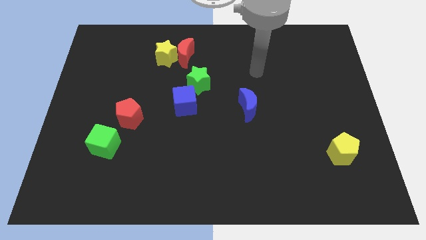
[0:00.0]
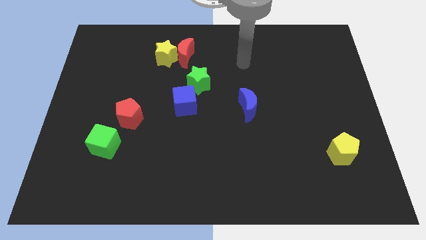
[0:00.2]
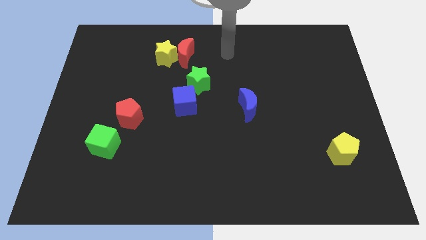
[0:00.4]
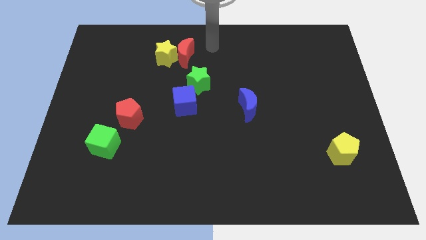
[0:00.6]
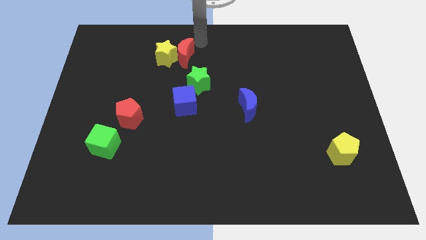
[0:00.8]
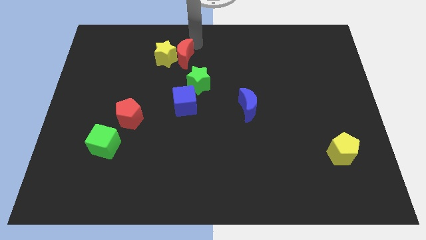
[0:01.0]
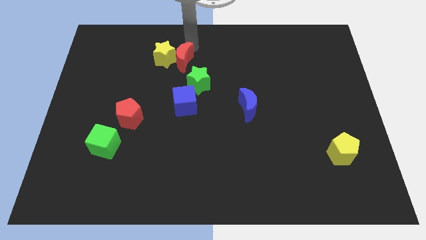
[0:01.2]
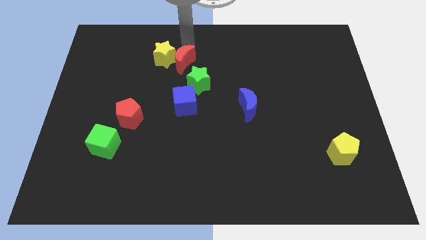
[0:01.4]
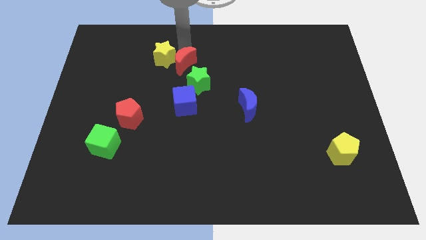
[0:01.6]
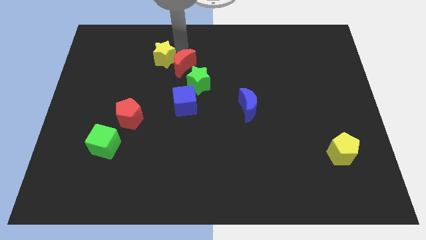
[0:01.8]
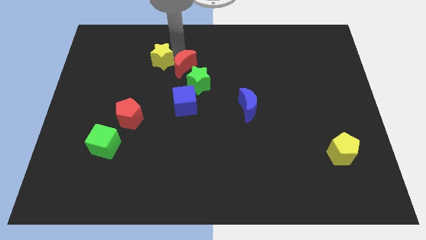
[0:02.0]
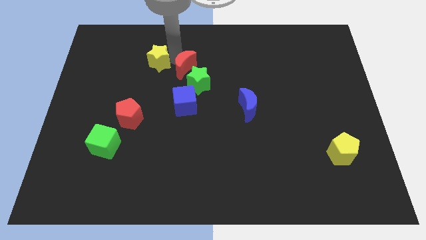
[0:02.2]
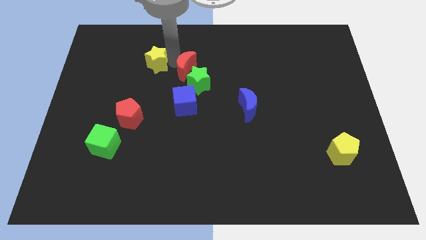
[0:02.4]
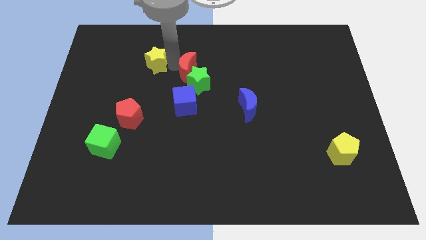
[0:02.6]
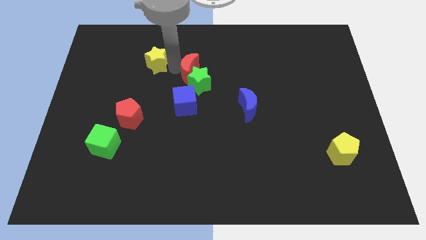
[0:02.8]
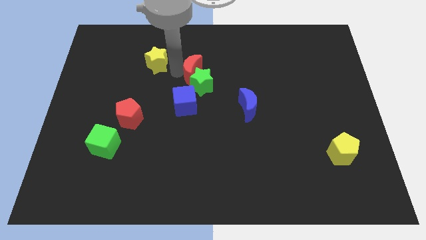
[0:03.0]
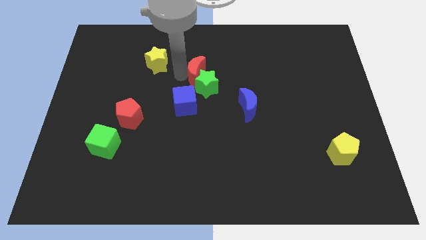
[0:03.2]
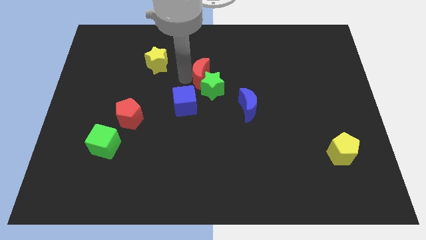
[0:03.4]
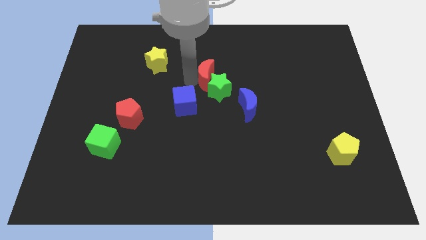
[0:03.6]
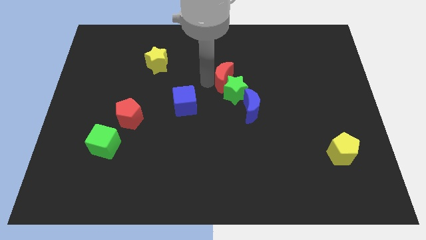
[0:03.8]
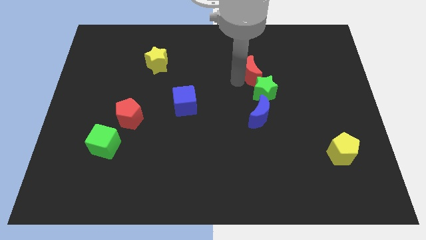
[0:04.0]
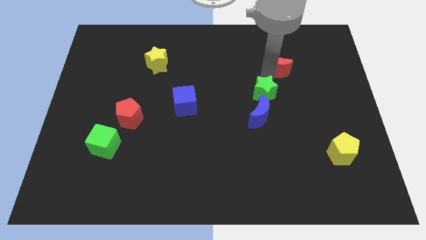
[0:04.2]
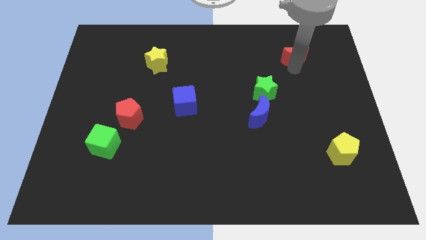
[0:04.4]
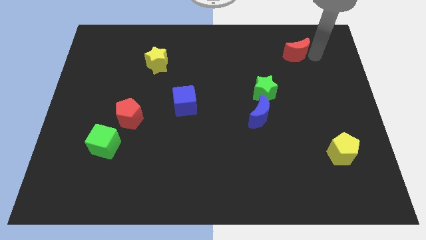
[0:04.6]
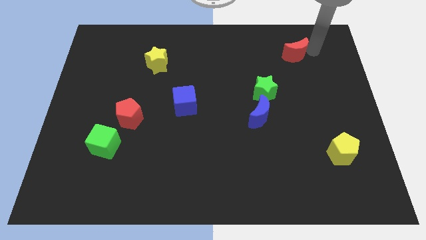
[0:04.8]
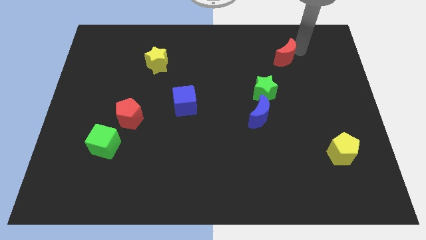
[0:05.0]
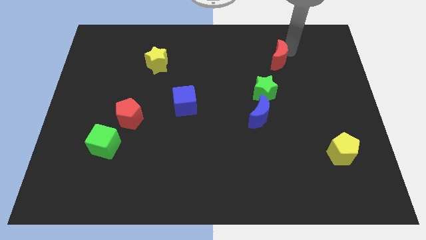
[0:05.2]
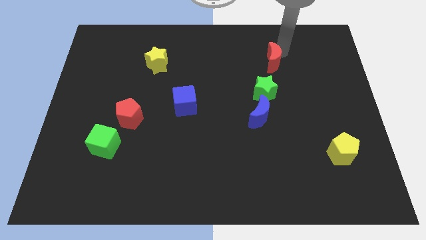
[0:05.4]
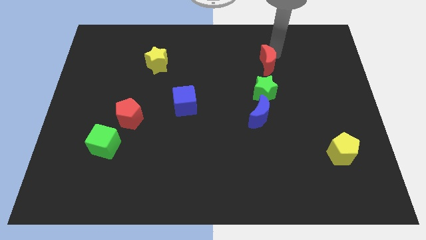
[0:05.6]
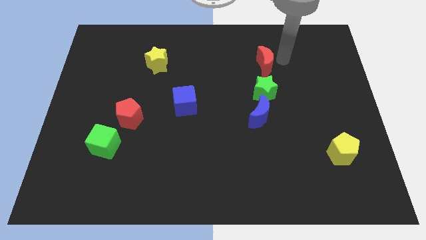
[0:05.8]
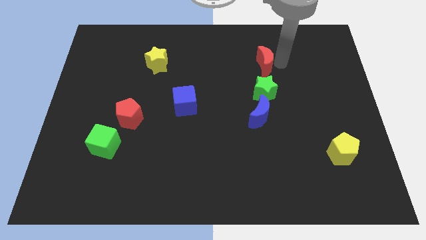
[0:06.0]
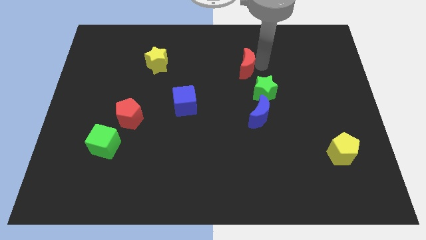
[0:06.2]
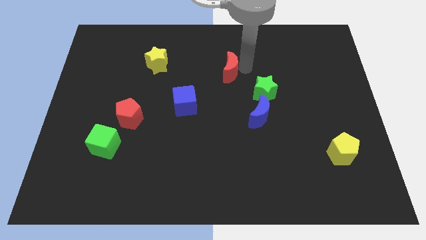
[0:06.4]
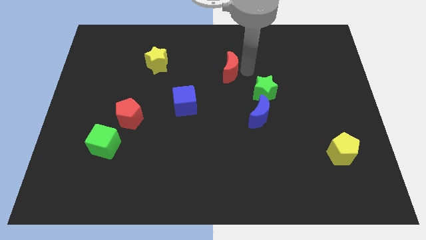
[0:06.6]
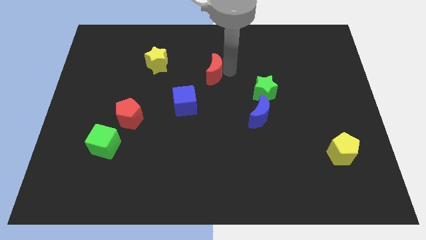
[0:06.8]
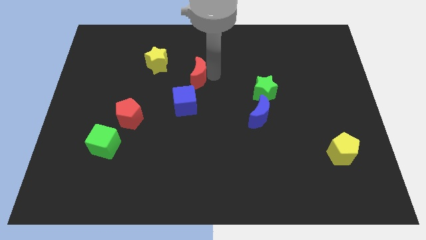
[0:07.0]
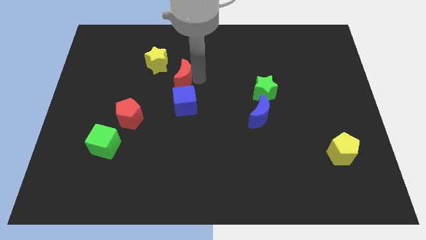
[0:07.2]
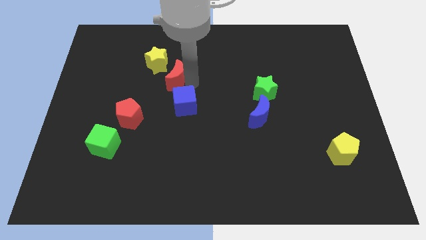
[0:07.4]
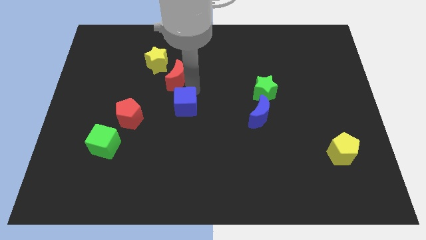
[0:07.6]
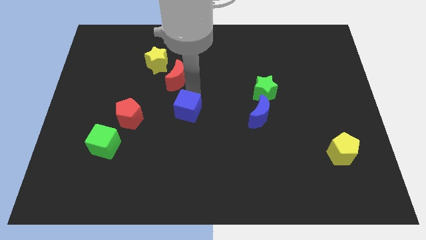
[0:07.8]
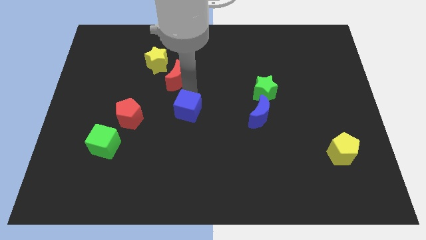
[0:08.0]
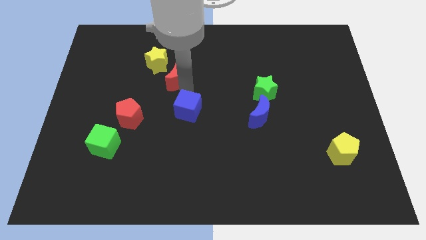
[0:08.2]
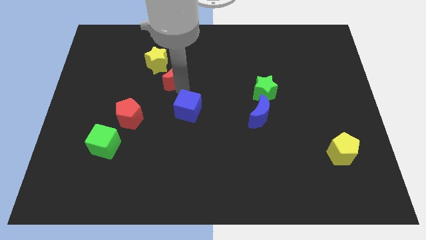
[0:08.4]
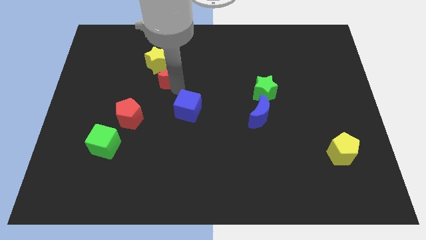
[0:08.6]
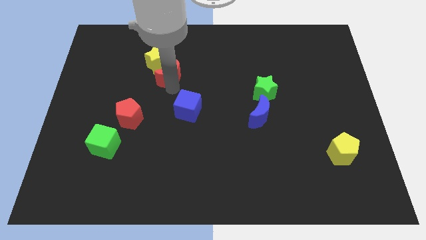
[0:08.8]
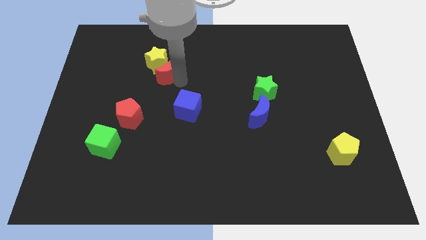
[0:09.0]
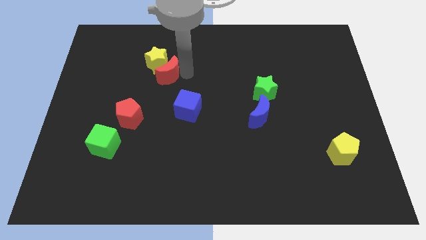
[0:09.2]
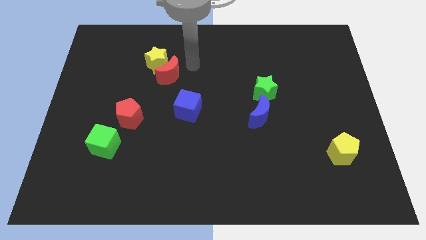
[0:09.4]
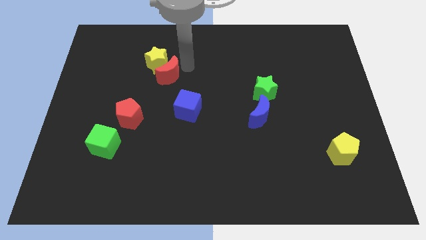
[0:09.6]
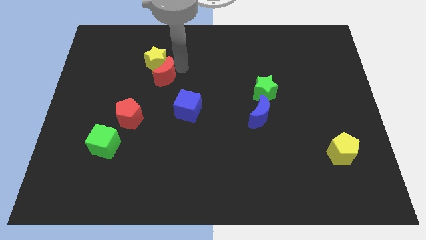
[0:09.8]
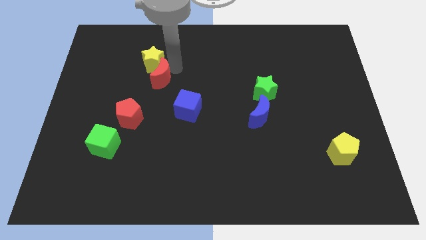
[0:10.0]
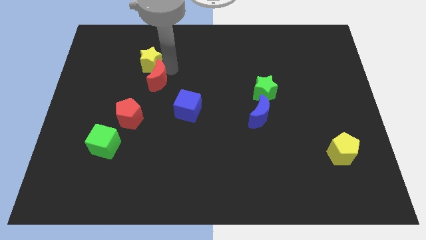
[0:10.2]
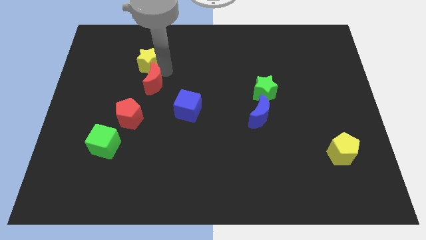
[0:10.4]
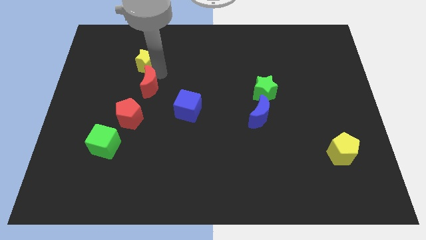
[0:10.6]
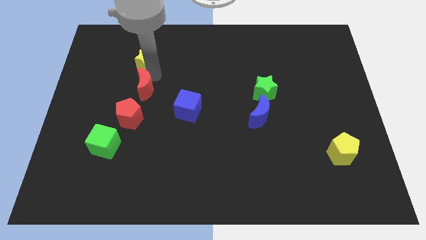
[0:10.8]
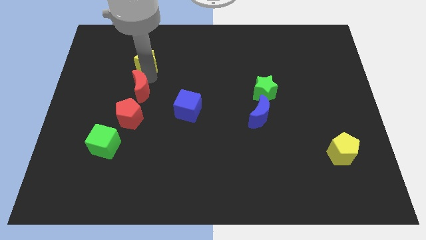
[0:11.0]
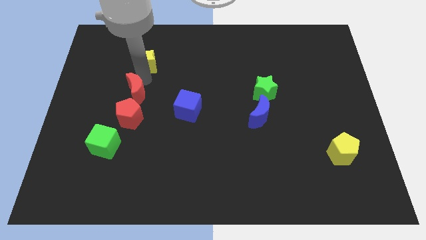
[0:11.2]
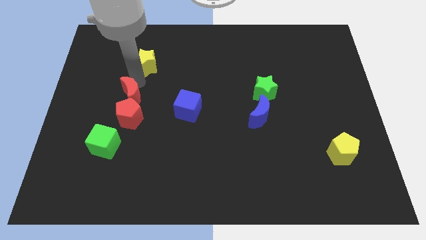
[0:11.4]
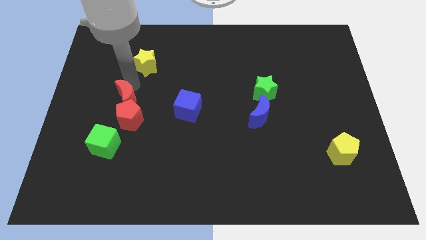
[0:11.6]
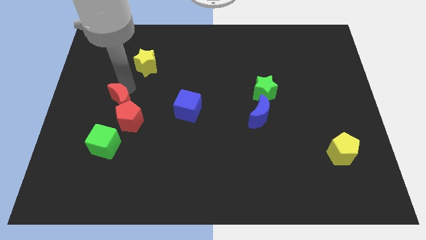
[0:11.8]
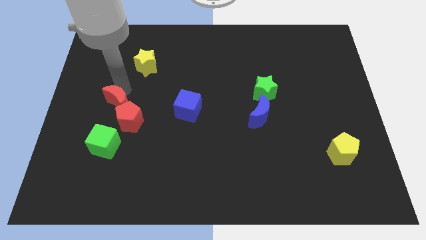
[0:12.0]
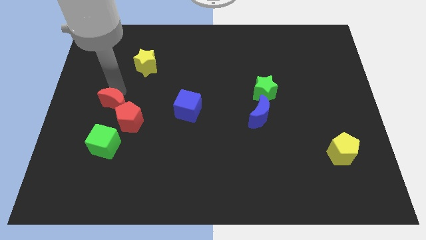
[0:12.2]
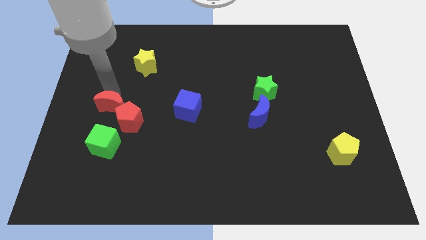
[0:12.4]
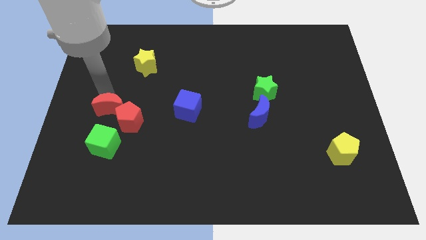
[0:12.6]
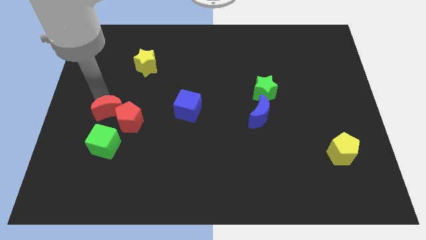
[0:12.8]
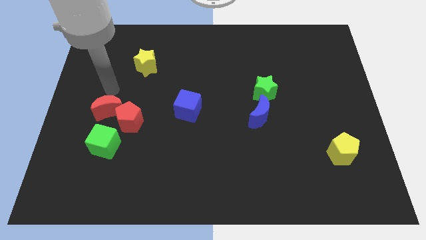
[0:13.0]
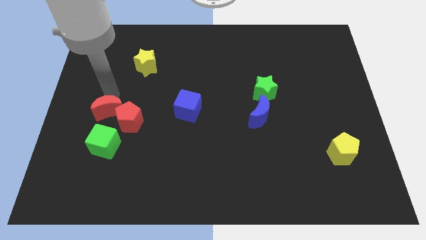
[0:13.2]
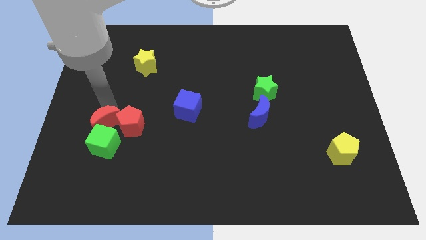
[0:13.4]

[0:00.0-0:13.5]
move the red moon towards the green cube
